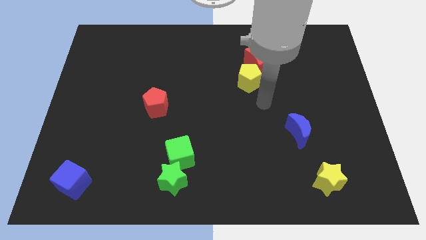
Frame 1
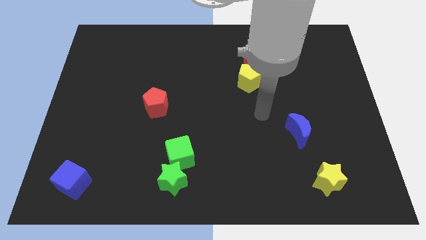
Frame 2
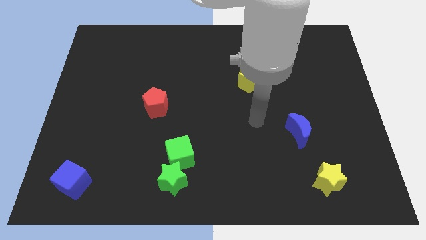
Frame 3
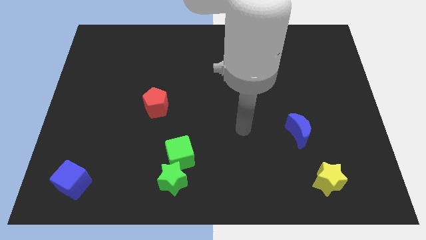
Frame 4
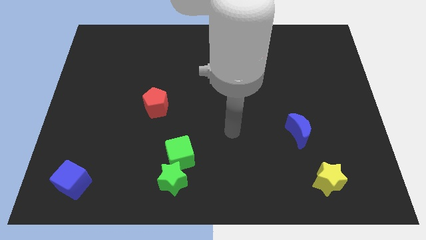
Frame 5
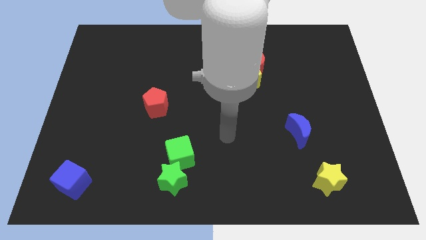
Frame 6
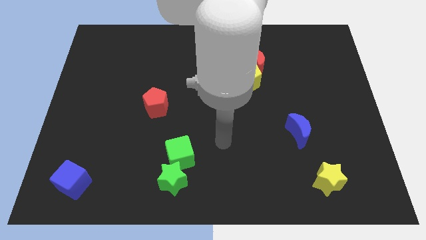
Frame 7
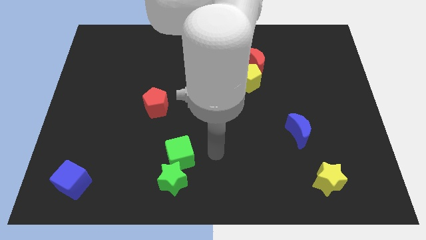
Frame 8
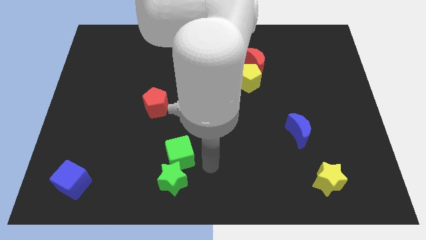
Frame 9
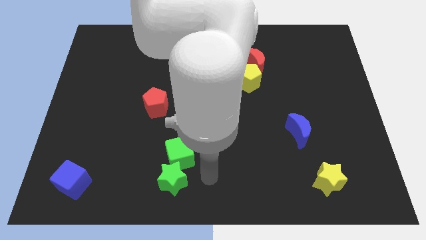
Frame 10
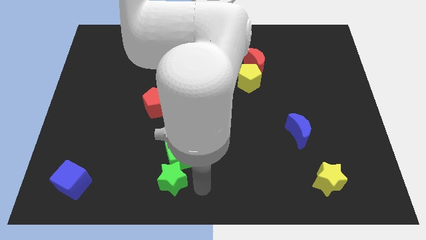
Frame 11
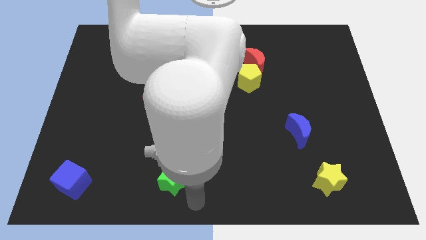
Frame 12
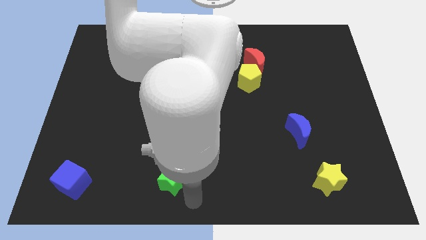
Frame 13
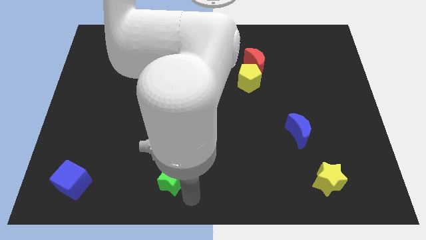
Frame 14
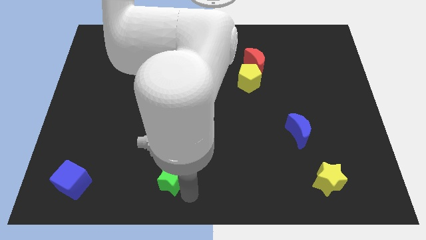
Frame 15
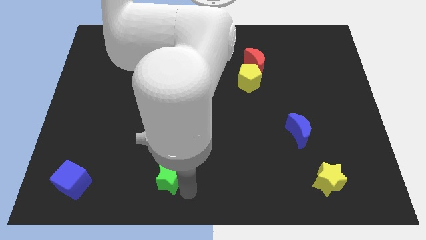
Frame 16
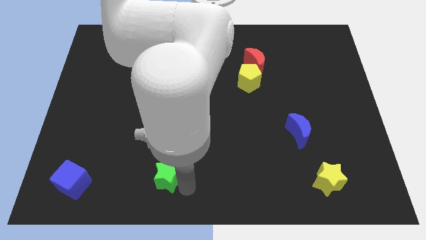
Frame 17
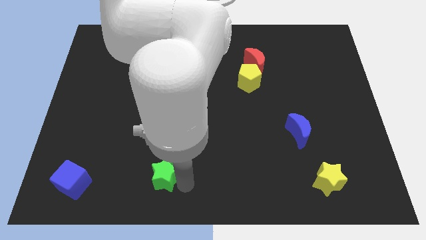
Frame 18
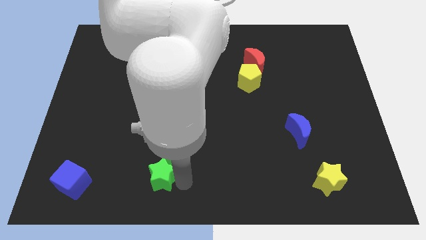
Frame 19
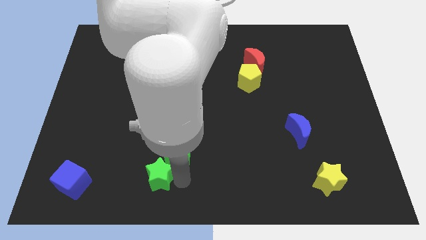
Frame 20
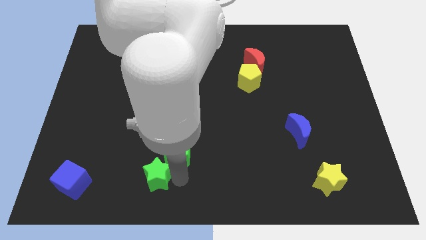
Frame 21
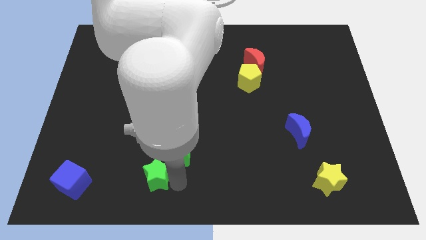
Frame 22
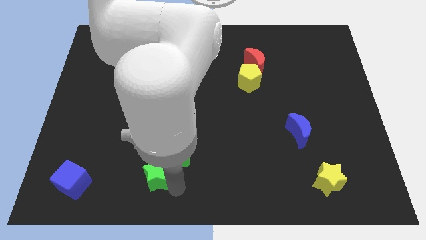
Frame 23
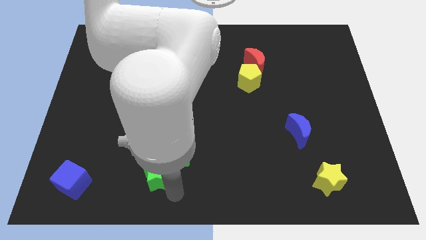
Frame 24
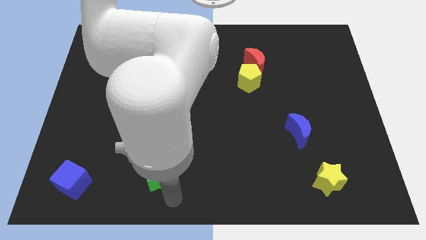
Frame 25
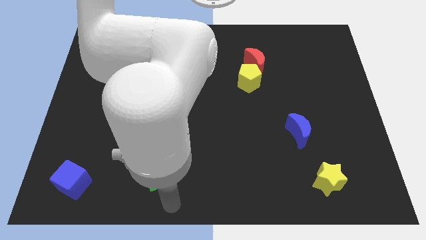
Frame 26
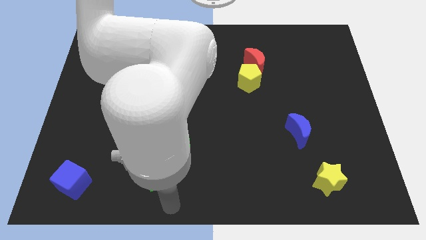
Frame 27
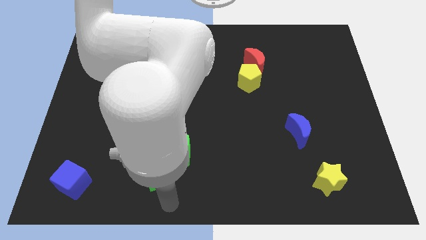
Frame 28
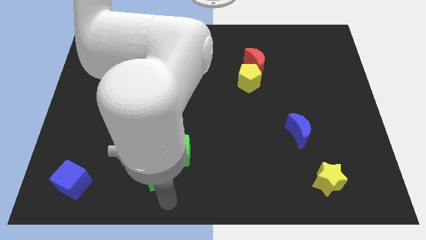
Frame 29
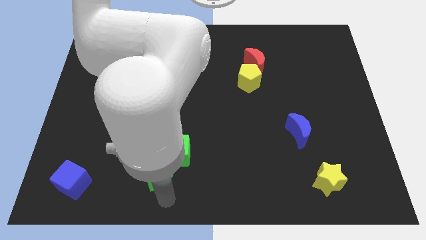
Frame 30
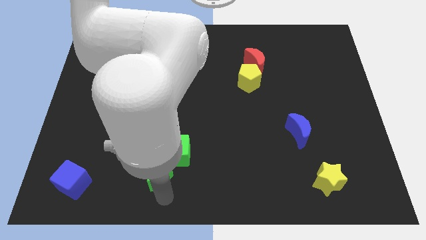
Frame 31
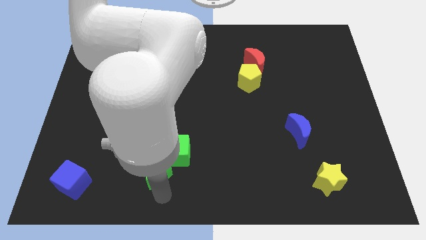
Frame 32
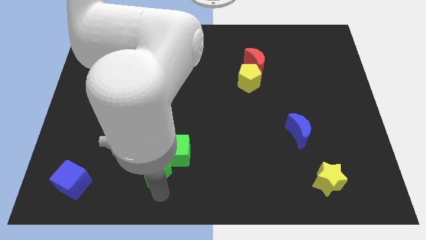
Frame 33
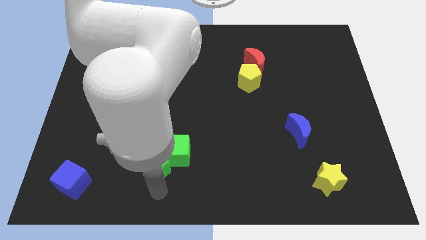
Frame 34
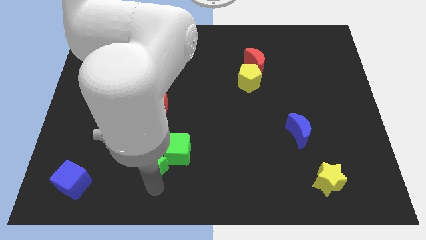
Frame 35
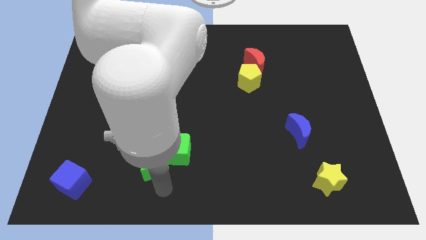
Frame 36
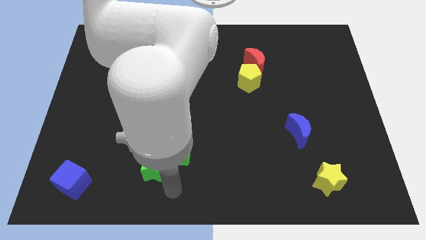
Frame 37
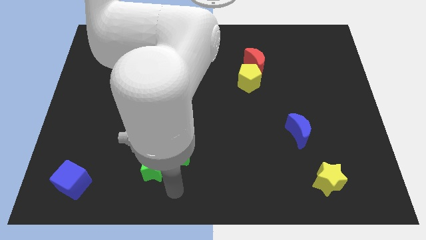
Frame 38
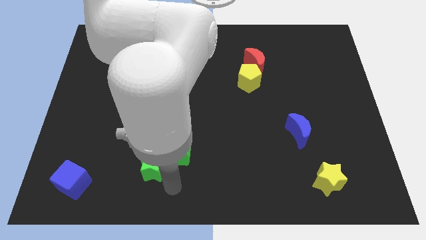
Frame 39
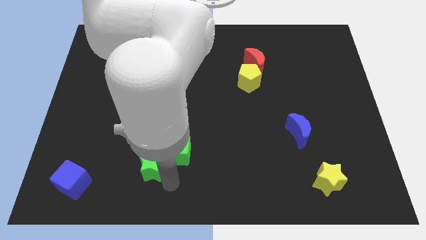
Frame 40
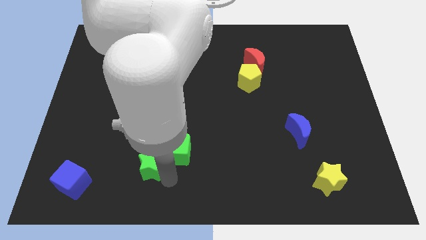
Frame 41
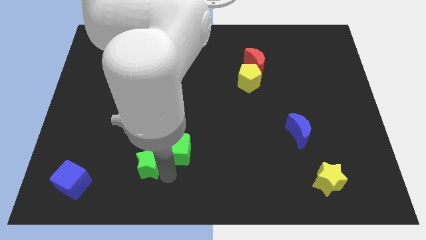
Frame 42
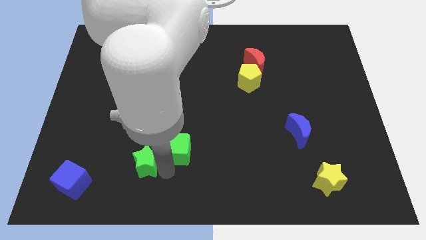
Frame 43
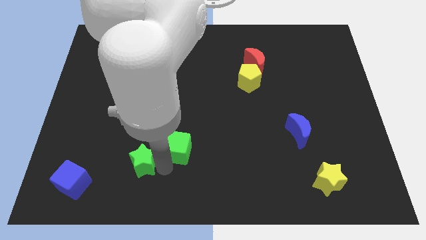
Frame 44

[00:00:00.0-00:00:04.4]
slightly push the green star diagonally up and to the left

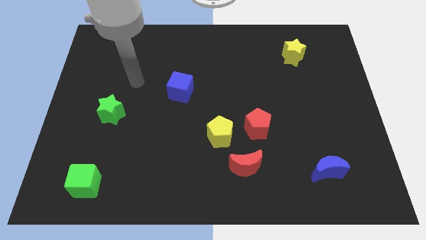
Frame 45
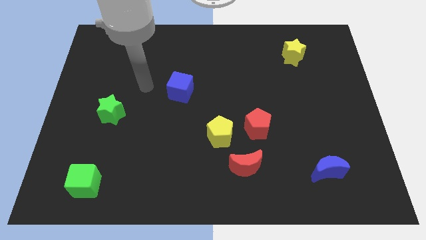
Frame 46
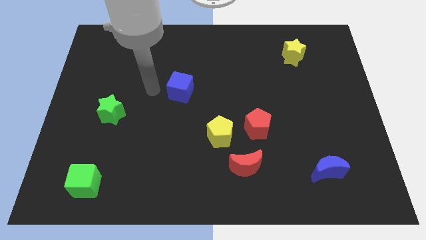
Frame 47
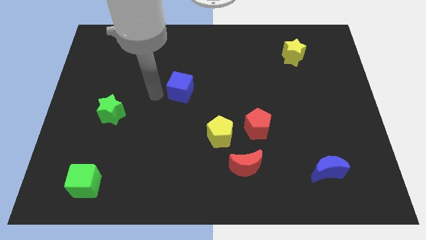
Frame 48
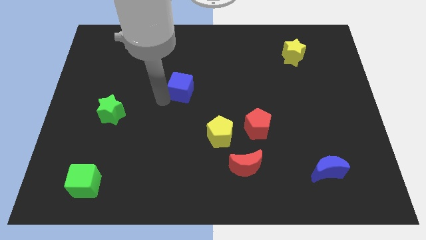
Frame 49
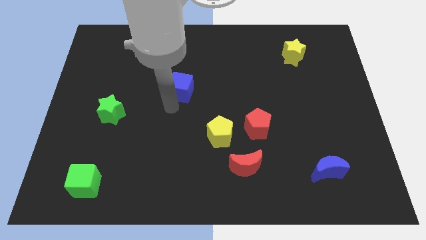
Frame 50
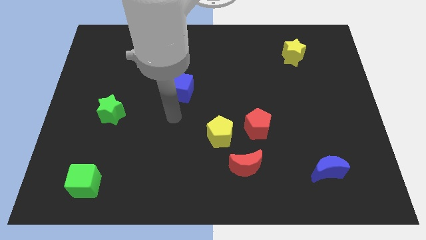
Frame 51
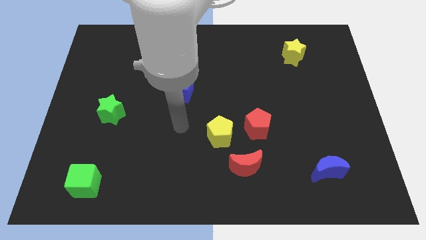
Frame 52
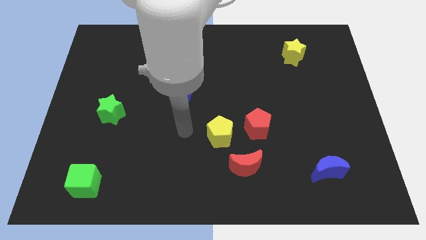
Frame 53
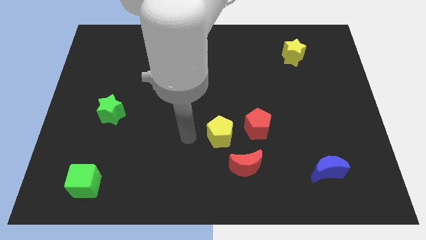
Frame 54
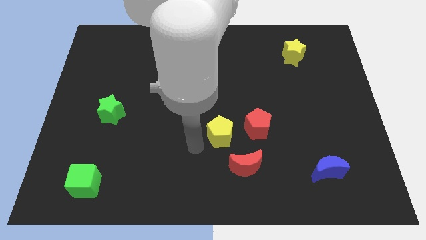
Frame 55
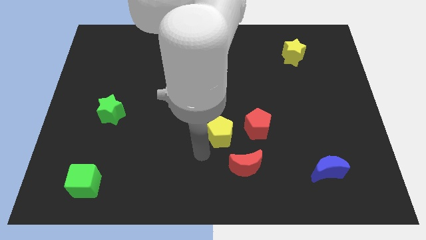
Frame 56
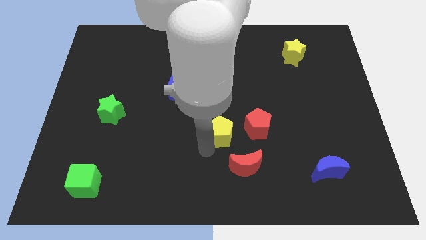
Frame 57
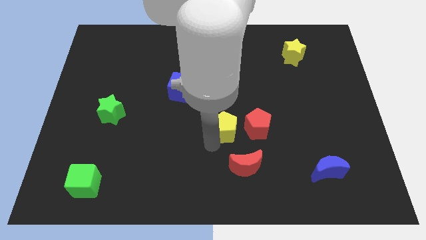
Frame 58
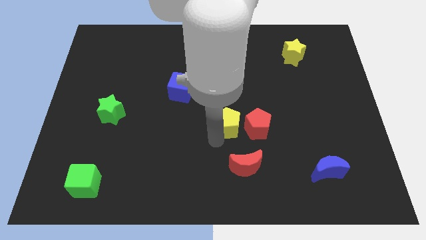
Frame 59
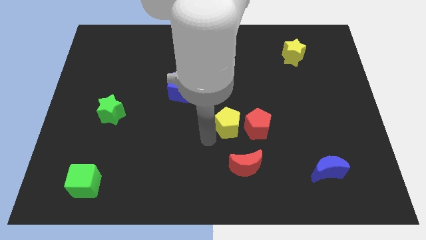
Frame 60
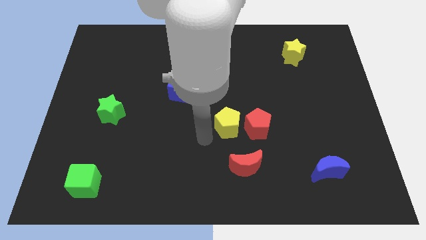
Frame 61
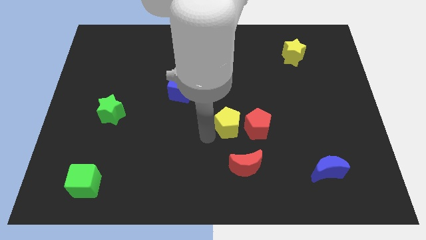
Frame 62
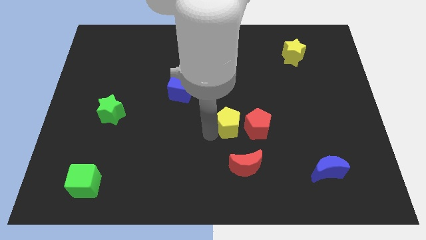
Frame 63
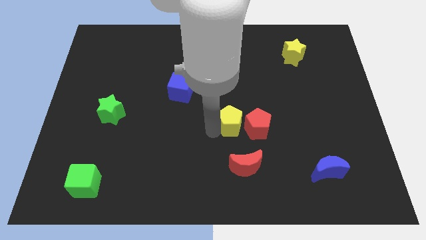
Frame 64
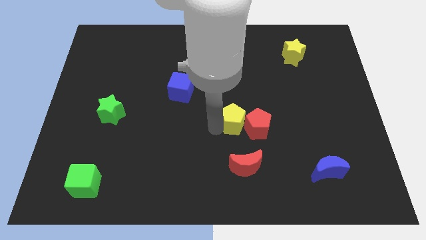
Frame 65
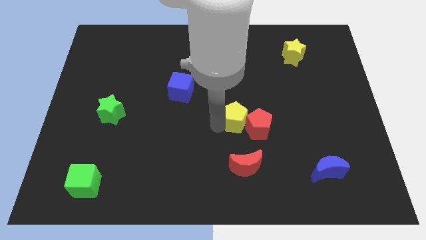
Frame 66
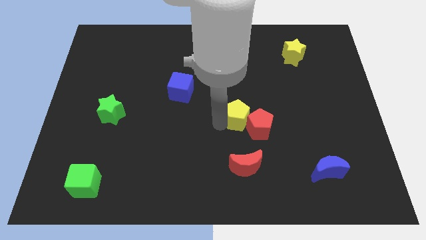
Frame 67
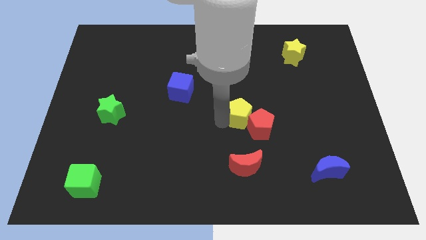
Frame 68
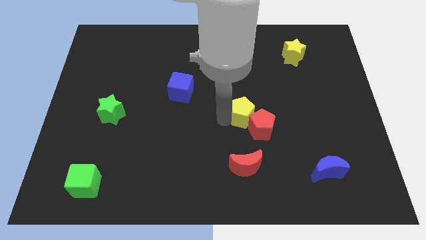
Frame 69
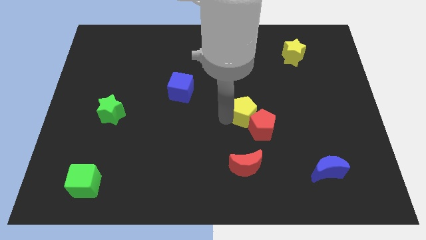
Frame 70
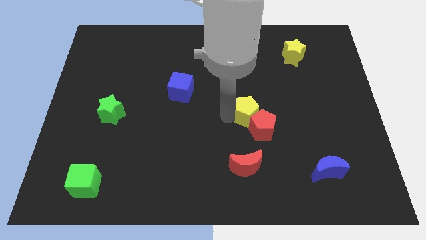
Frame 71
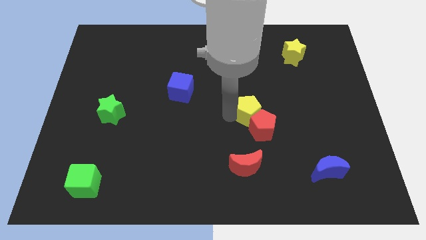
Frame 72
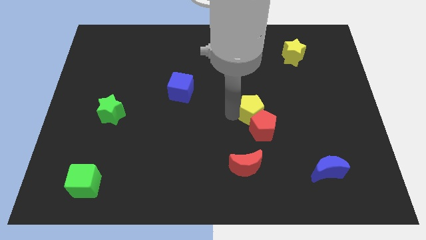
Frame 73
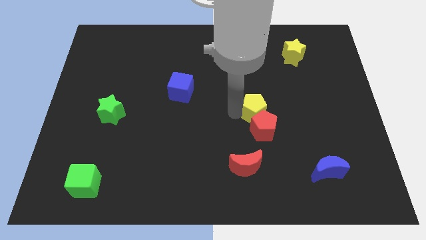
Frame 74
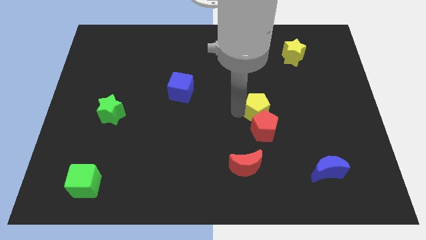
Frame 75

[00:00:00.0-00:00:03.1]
move the yellow pentagon a bit right

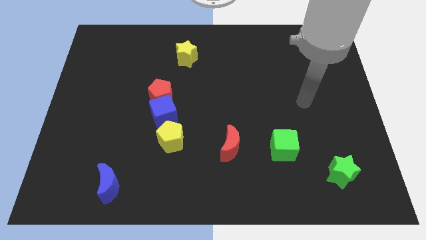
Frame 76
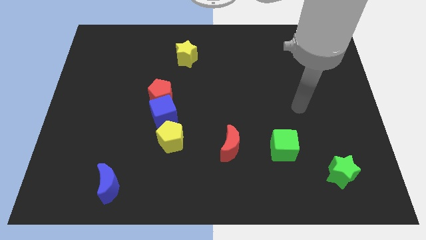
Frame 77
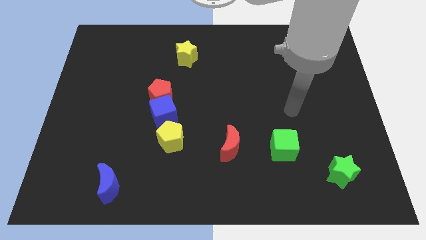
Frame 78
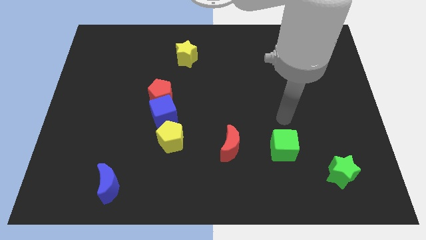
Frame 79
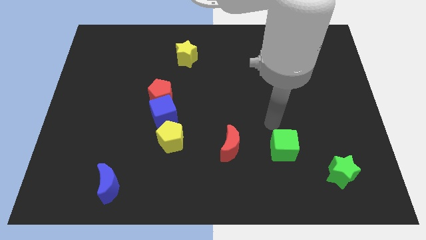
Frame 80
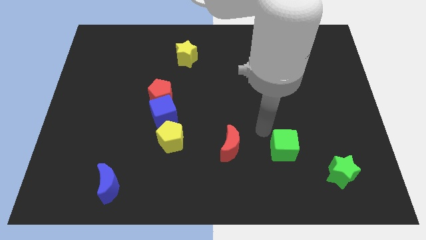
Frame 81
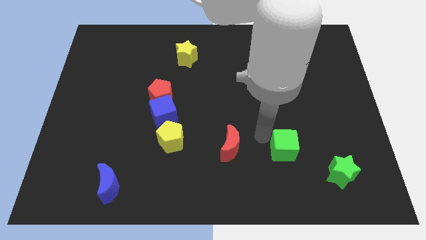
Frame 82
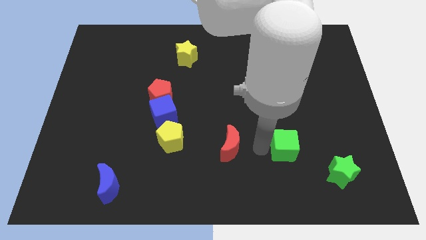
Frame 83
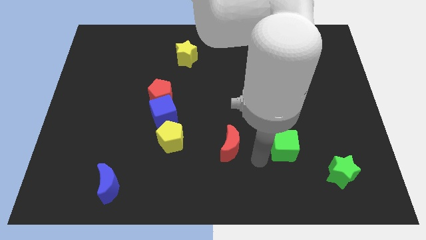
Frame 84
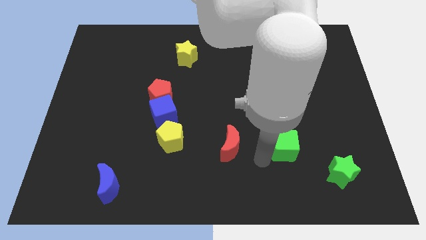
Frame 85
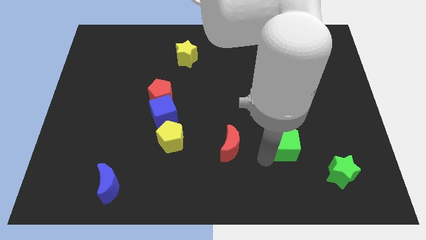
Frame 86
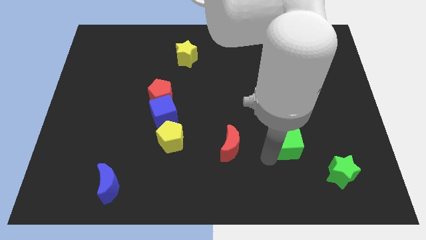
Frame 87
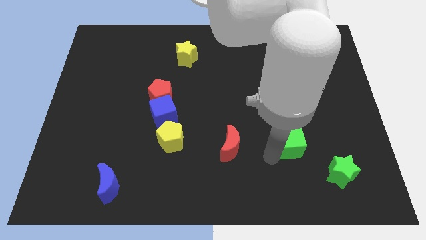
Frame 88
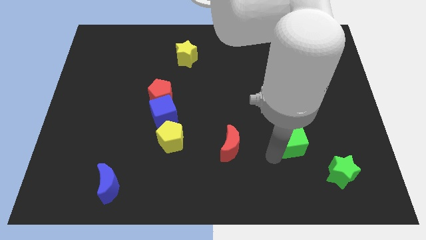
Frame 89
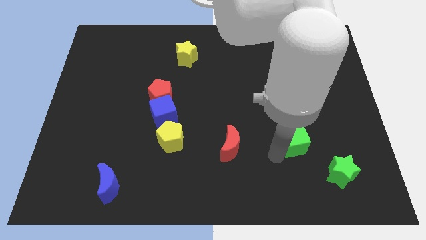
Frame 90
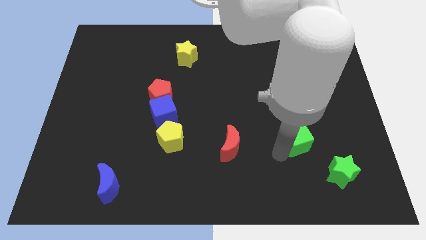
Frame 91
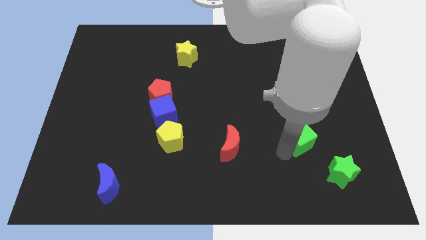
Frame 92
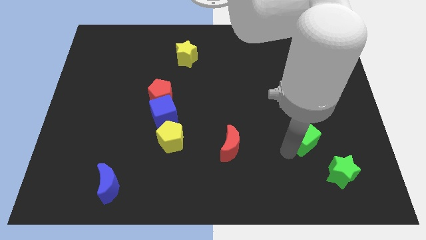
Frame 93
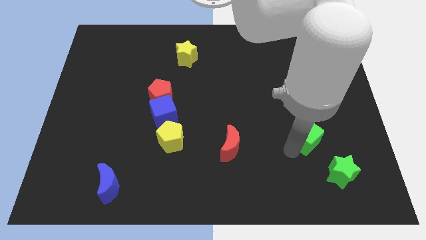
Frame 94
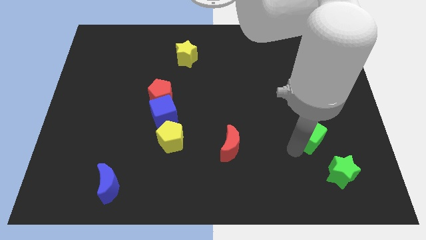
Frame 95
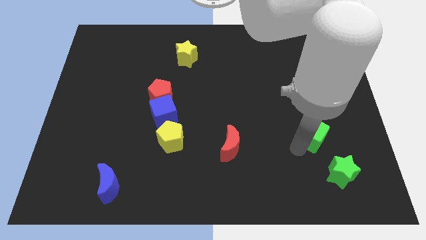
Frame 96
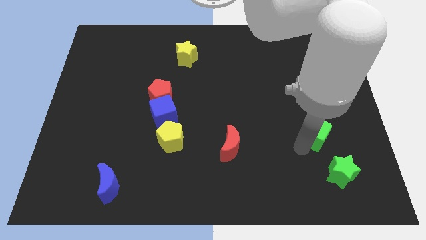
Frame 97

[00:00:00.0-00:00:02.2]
slightly move the green cube diagonally up and to the right
